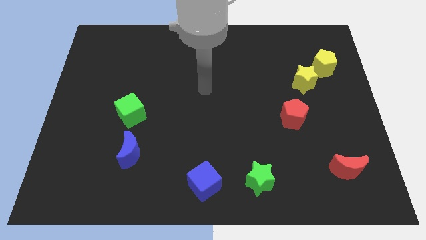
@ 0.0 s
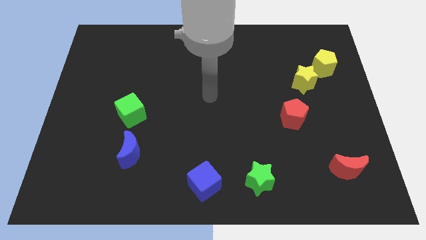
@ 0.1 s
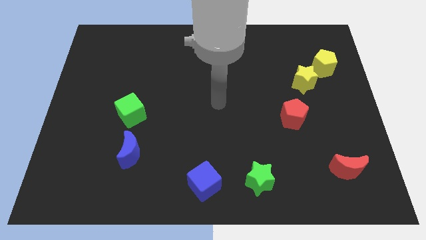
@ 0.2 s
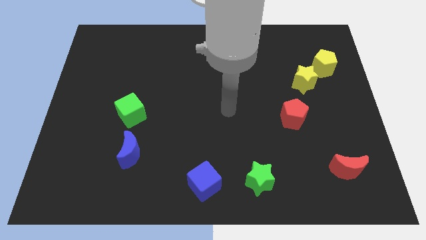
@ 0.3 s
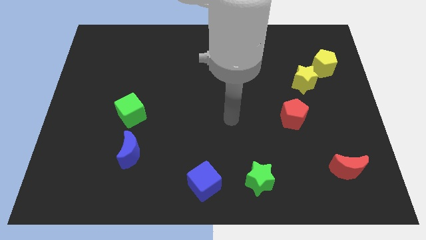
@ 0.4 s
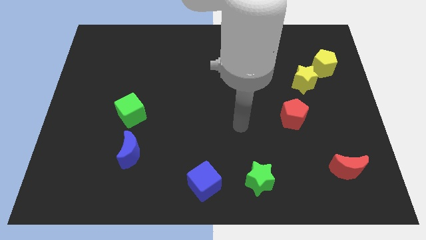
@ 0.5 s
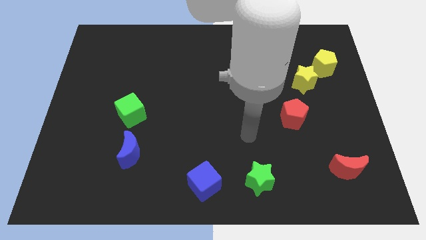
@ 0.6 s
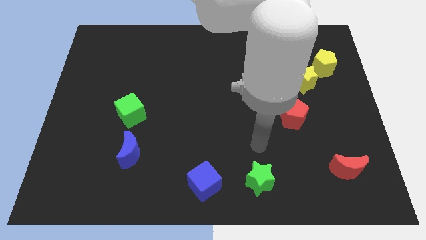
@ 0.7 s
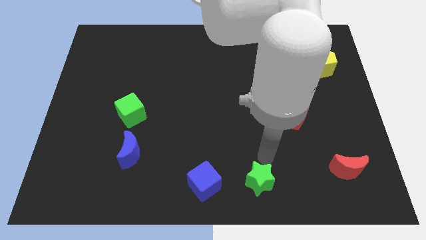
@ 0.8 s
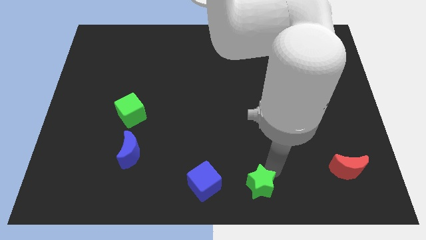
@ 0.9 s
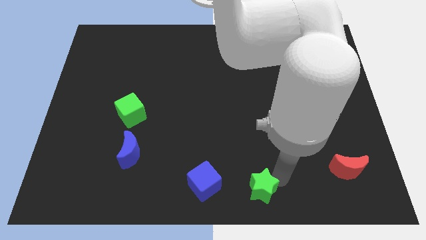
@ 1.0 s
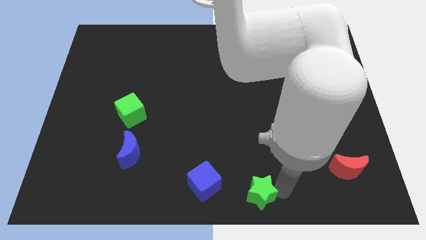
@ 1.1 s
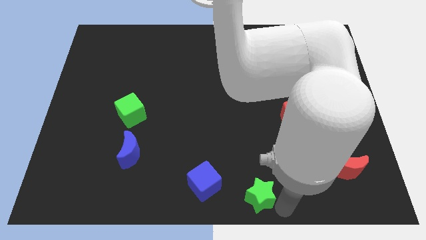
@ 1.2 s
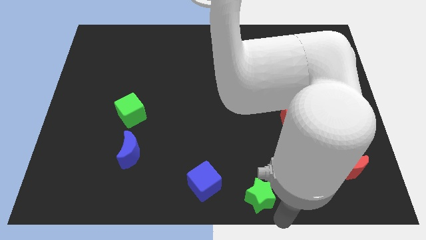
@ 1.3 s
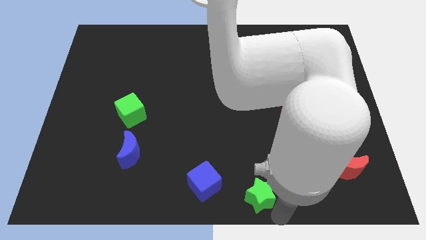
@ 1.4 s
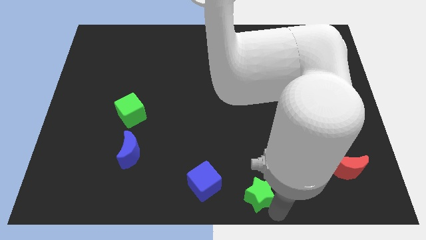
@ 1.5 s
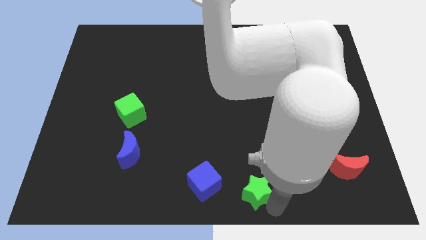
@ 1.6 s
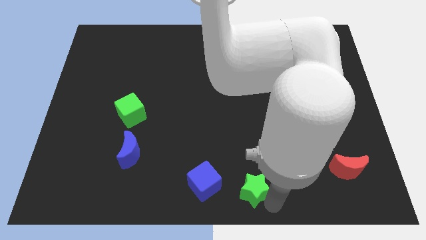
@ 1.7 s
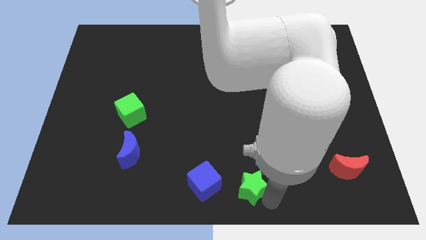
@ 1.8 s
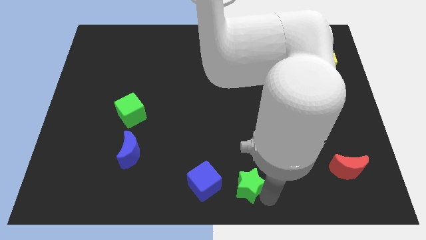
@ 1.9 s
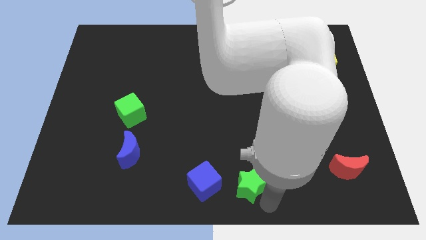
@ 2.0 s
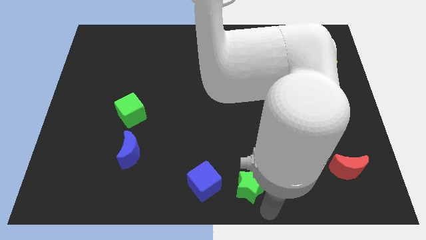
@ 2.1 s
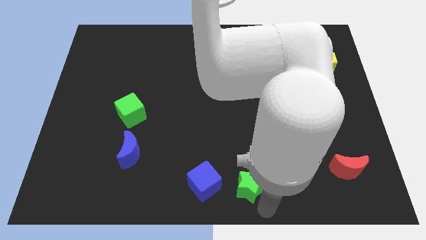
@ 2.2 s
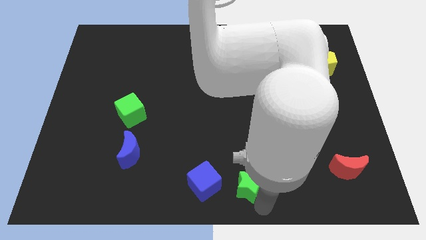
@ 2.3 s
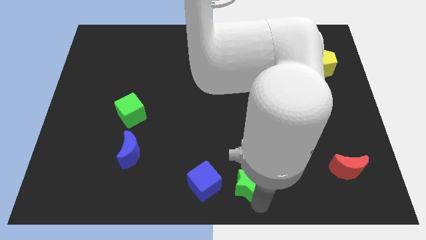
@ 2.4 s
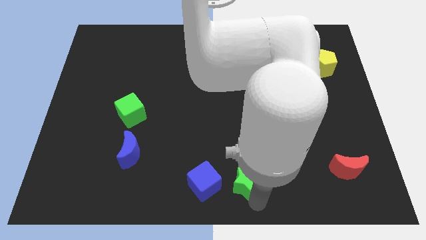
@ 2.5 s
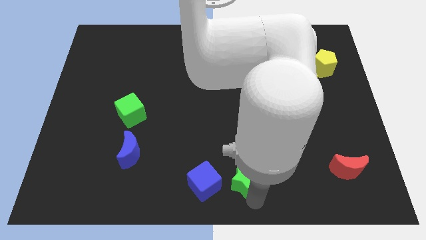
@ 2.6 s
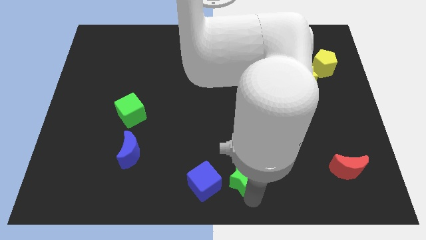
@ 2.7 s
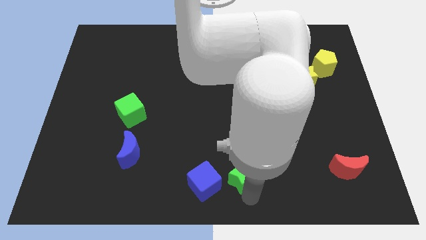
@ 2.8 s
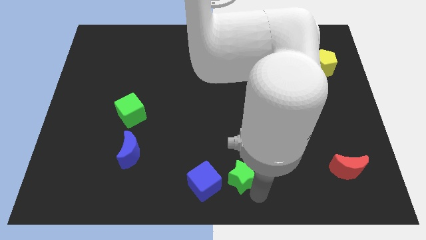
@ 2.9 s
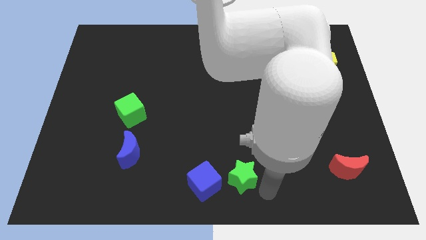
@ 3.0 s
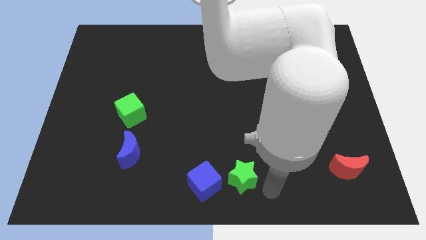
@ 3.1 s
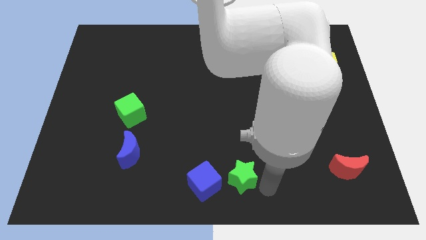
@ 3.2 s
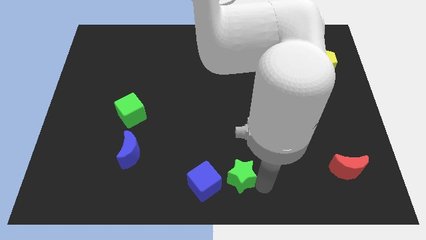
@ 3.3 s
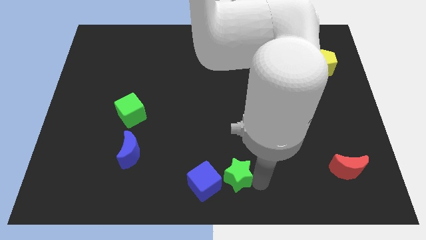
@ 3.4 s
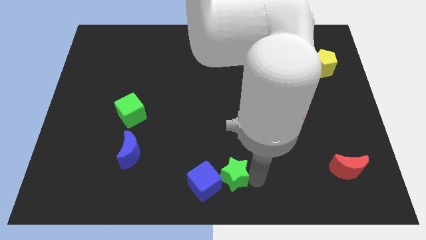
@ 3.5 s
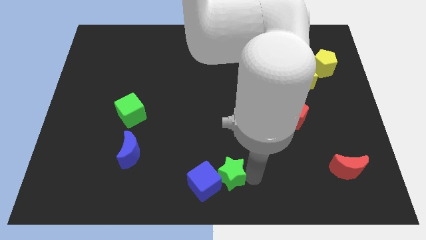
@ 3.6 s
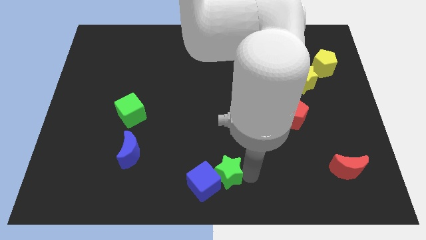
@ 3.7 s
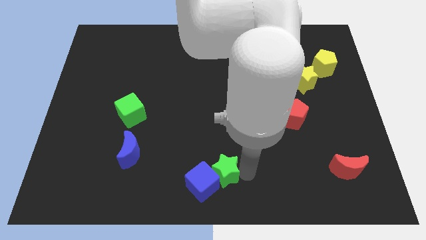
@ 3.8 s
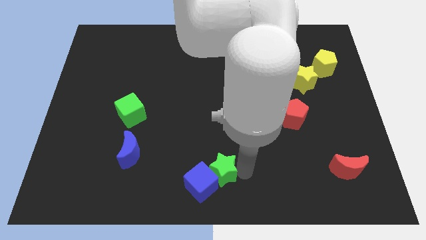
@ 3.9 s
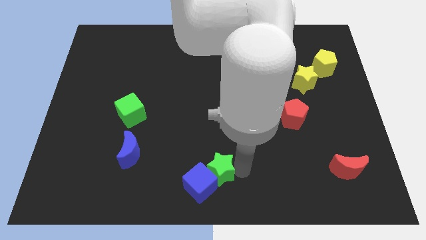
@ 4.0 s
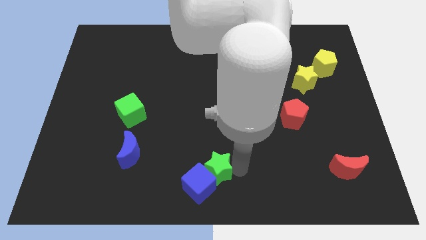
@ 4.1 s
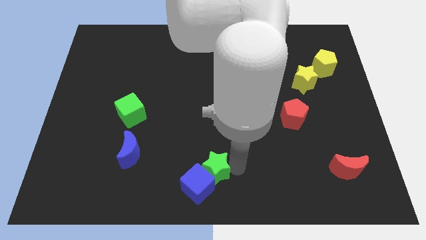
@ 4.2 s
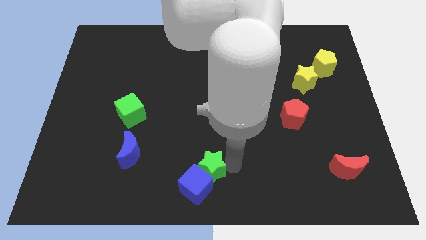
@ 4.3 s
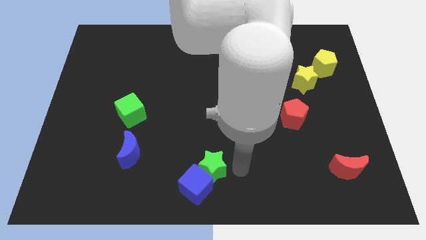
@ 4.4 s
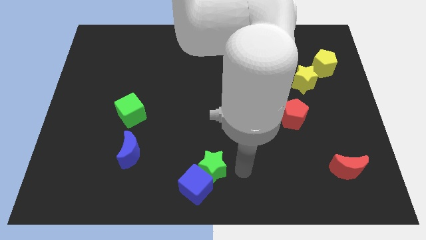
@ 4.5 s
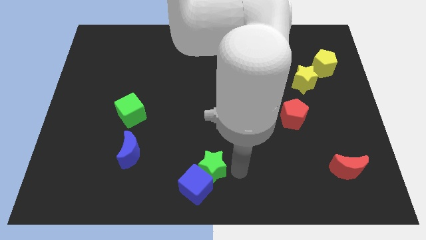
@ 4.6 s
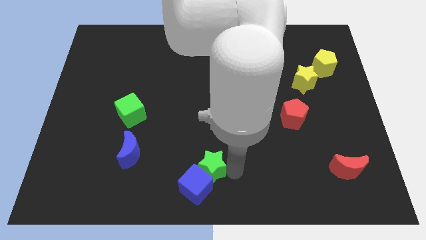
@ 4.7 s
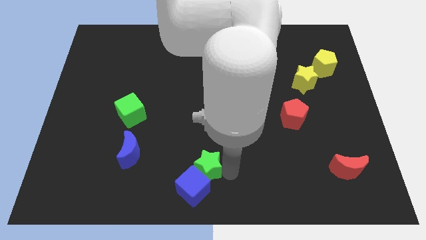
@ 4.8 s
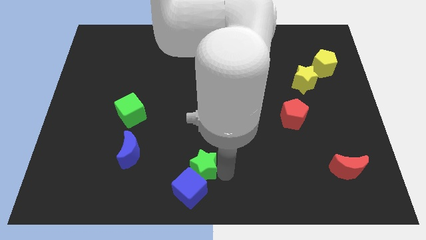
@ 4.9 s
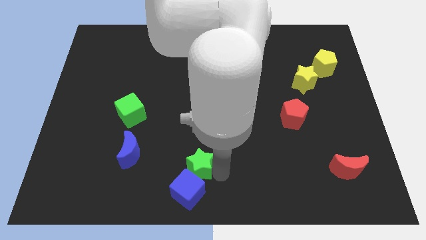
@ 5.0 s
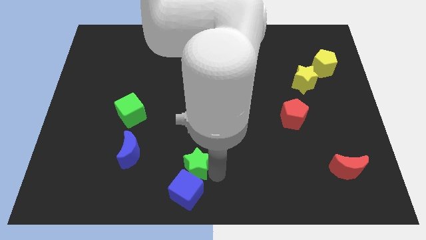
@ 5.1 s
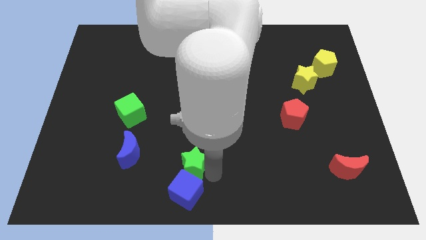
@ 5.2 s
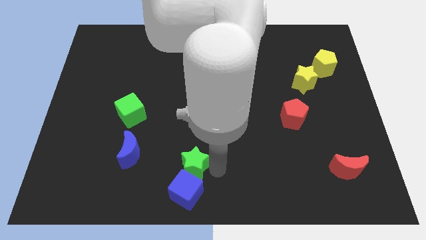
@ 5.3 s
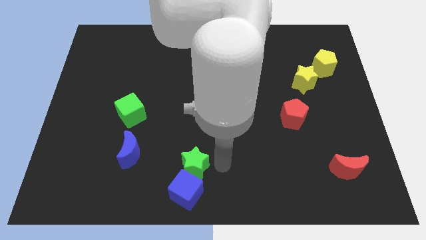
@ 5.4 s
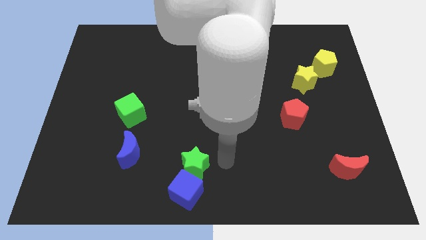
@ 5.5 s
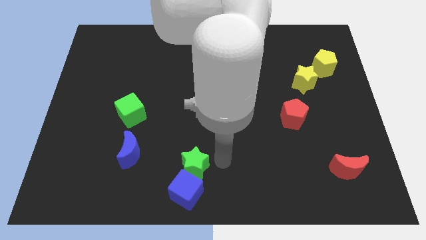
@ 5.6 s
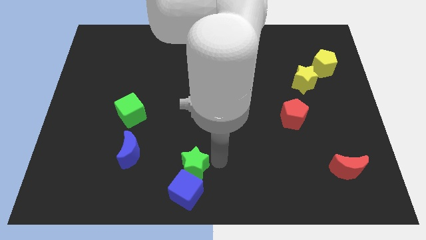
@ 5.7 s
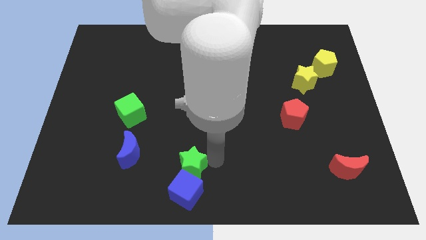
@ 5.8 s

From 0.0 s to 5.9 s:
push the green star to the top left side of the blue cube

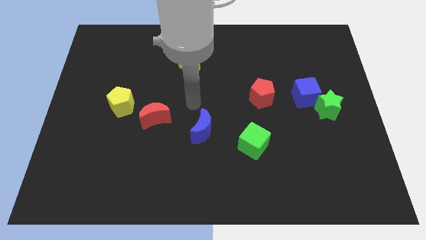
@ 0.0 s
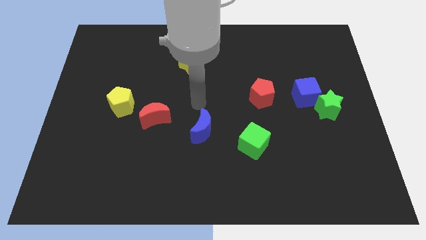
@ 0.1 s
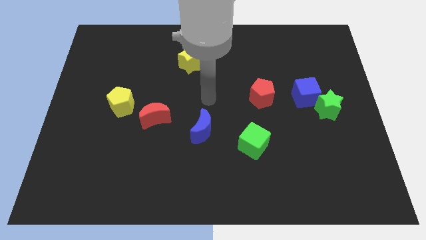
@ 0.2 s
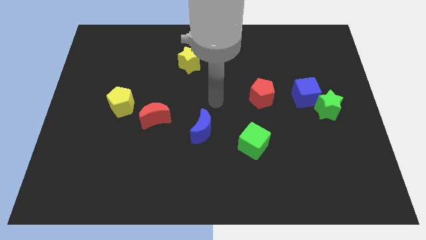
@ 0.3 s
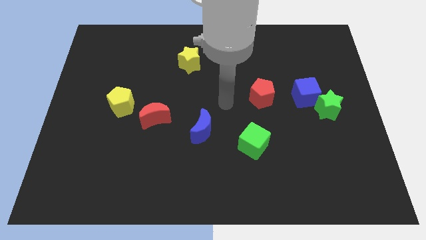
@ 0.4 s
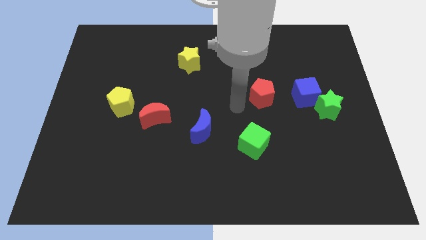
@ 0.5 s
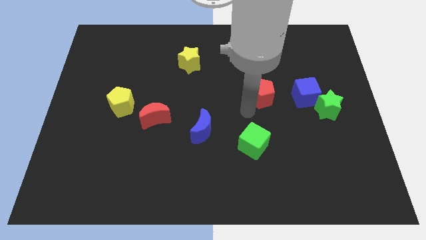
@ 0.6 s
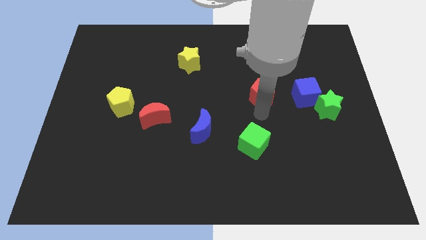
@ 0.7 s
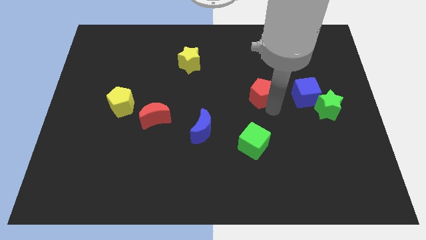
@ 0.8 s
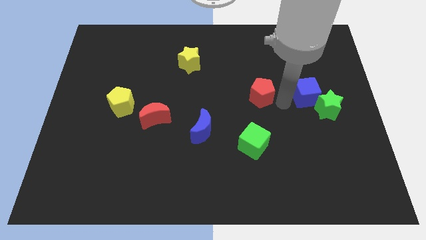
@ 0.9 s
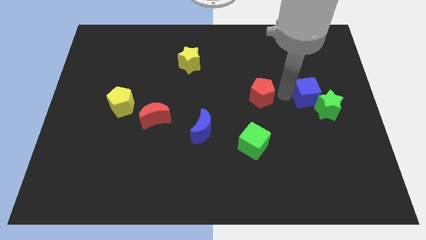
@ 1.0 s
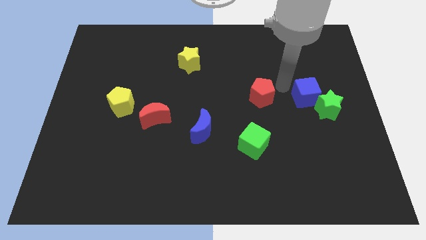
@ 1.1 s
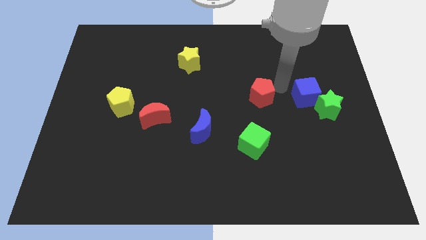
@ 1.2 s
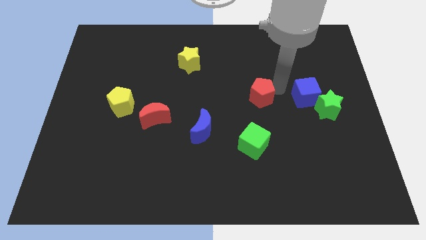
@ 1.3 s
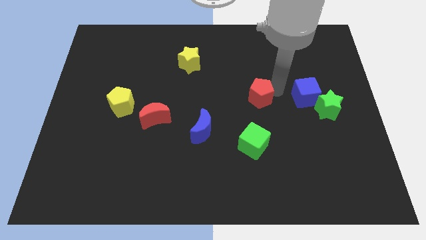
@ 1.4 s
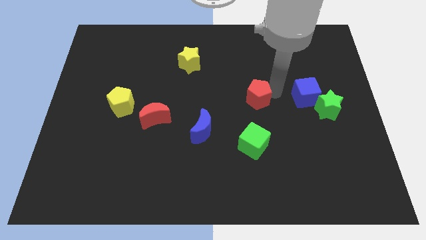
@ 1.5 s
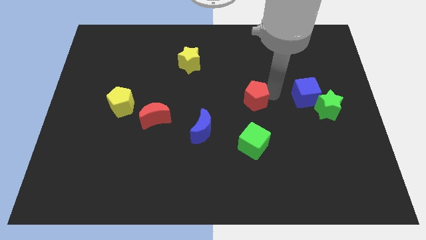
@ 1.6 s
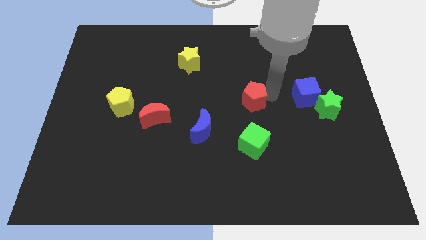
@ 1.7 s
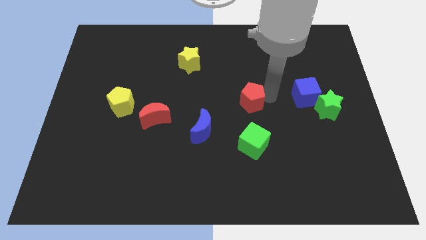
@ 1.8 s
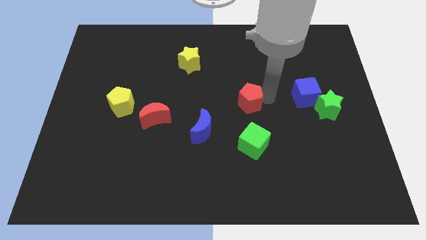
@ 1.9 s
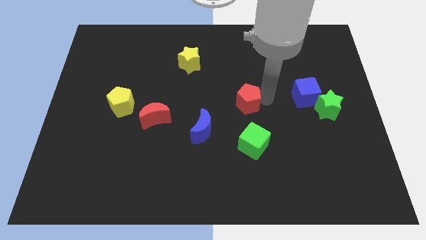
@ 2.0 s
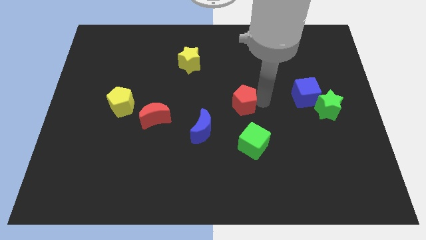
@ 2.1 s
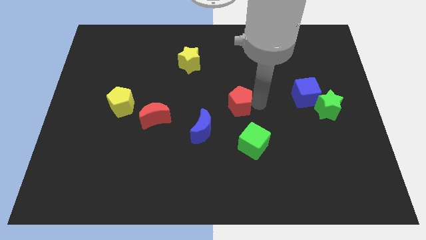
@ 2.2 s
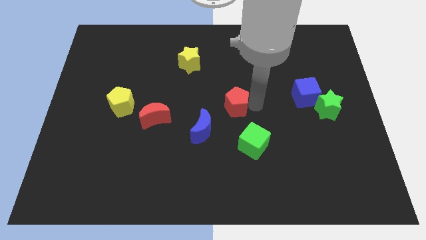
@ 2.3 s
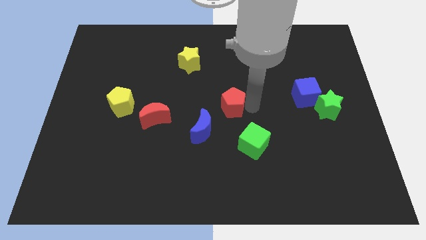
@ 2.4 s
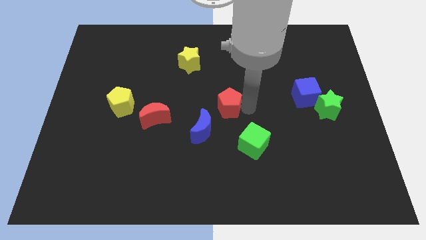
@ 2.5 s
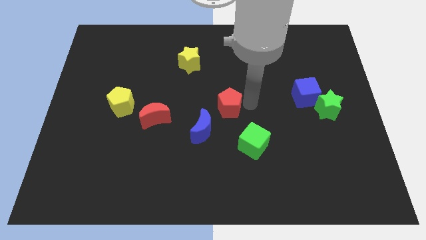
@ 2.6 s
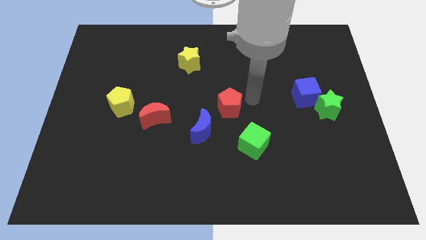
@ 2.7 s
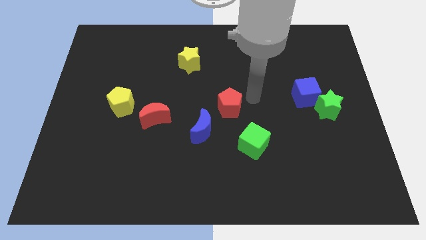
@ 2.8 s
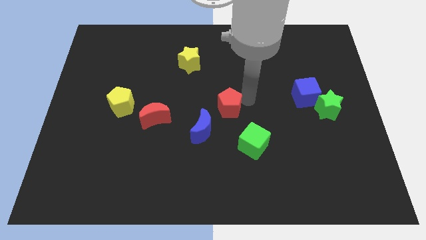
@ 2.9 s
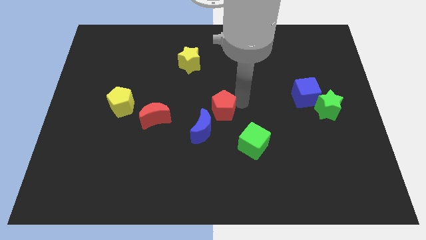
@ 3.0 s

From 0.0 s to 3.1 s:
slide the red pentagon right of the red moon
